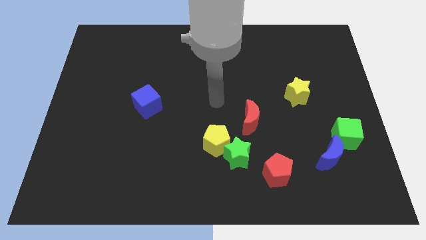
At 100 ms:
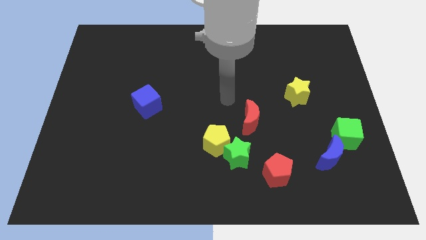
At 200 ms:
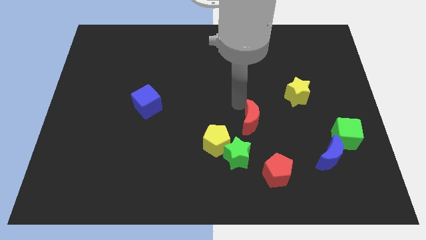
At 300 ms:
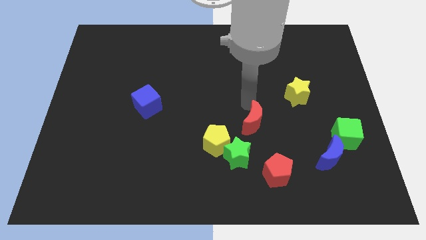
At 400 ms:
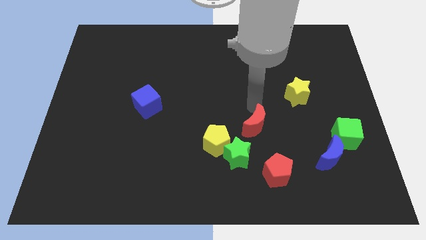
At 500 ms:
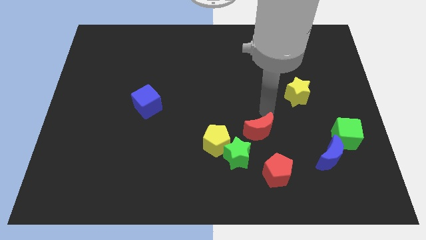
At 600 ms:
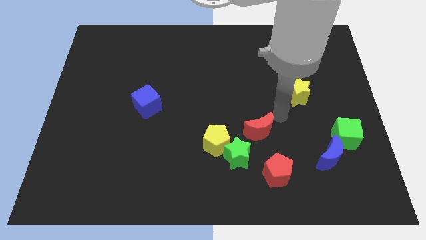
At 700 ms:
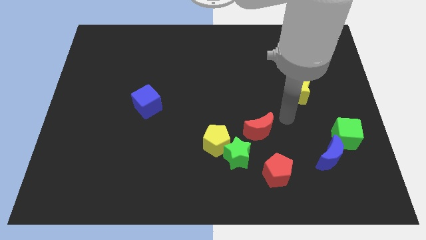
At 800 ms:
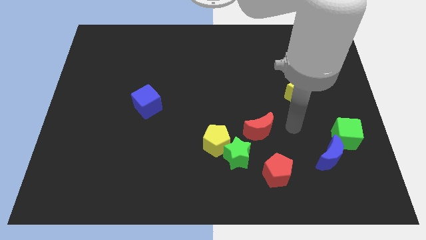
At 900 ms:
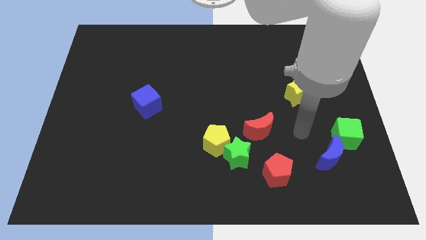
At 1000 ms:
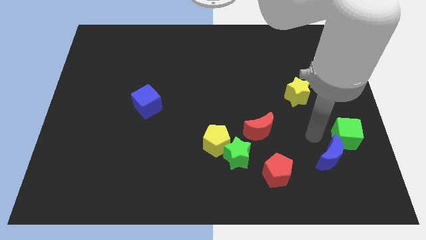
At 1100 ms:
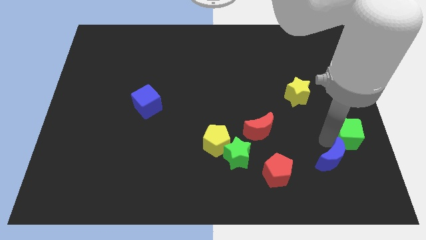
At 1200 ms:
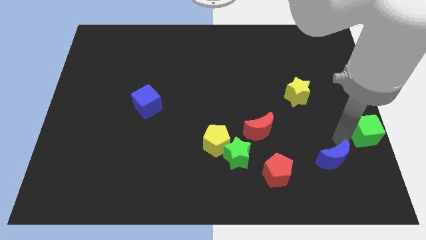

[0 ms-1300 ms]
separate the blue moon from the green cube

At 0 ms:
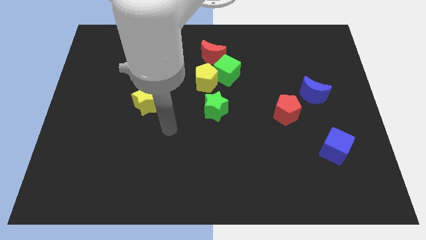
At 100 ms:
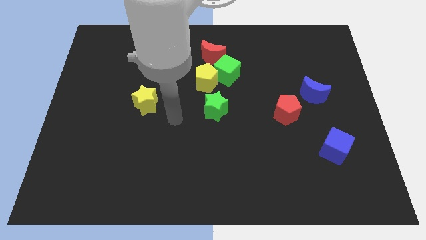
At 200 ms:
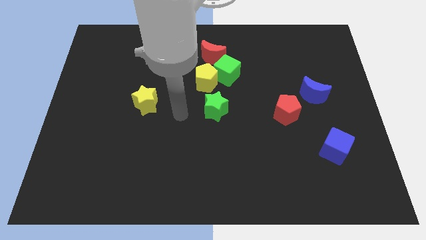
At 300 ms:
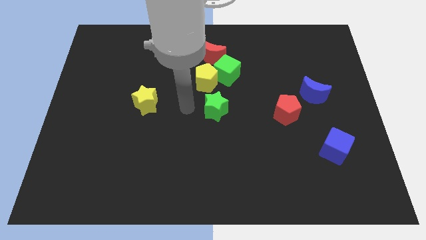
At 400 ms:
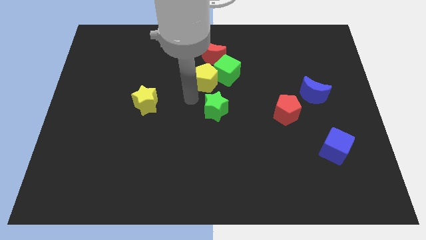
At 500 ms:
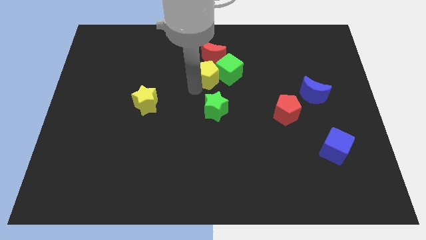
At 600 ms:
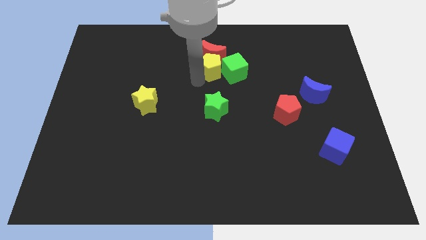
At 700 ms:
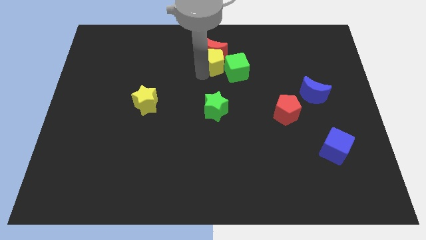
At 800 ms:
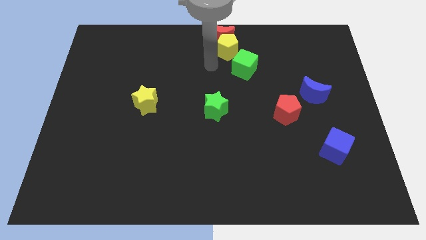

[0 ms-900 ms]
separate the green cube from the yellow pentagon and red moon

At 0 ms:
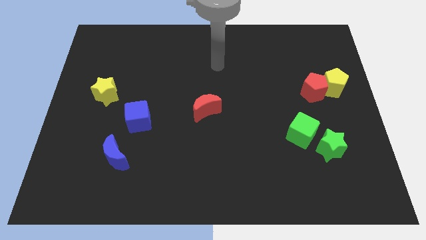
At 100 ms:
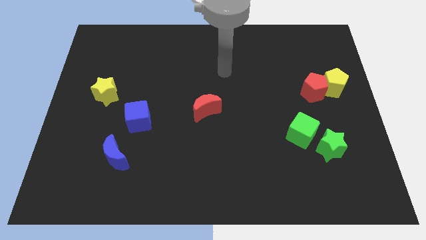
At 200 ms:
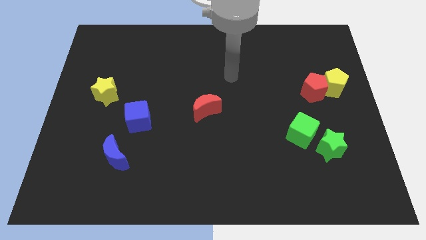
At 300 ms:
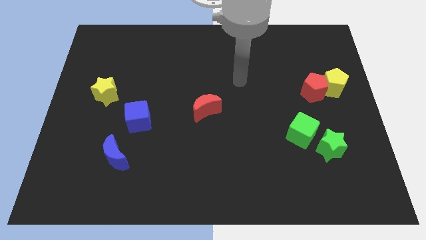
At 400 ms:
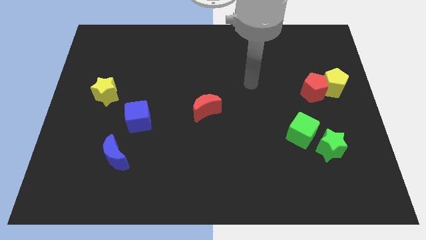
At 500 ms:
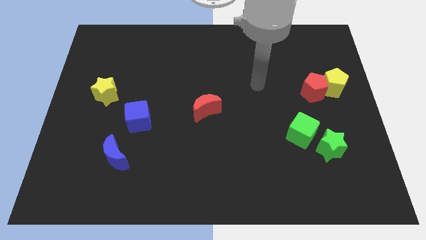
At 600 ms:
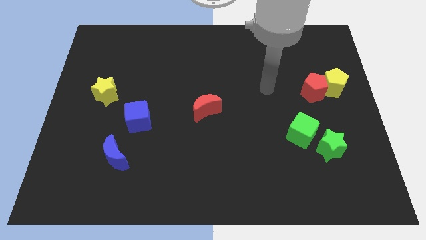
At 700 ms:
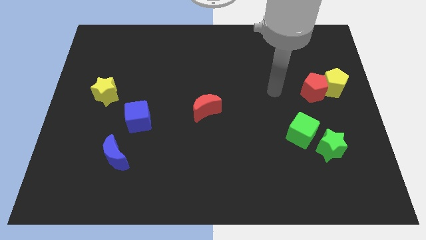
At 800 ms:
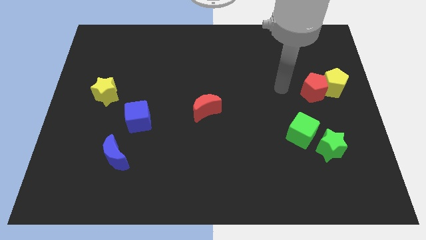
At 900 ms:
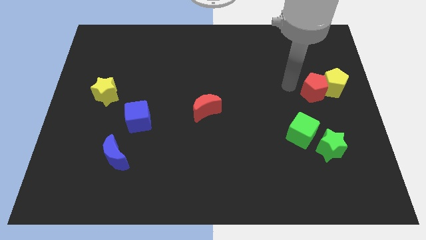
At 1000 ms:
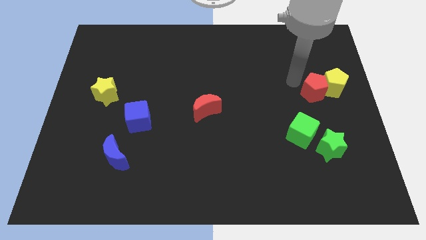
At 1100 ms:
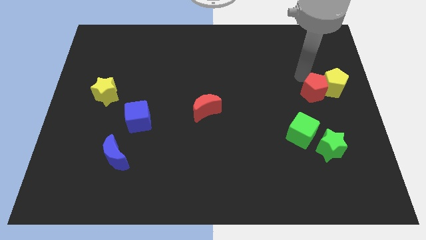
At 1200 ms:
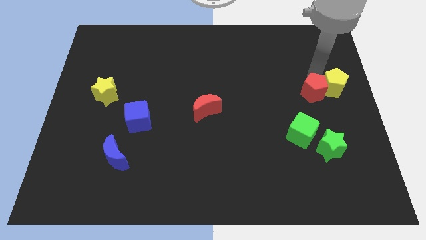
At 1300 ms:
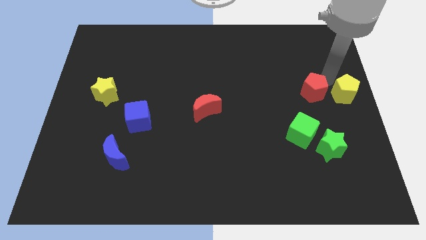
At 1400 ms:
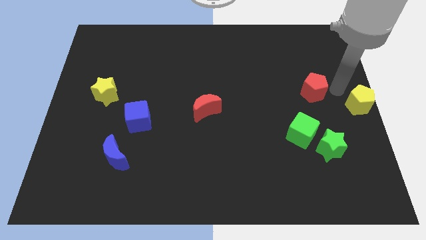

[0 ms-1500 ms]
separate the red pentagon from the yellow pentagon

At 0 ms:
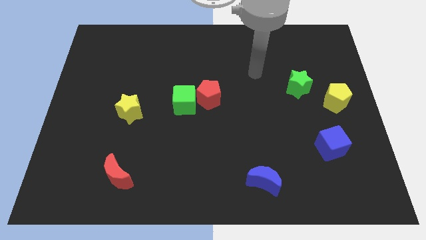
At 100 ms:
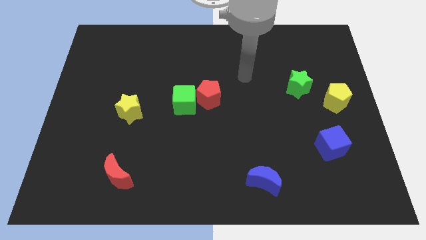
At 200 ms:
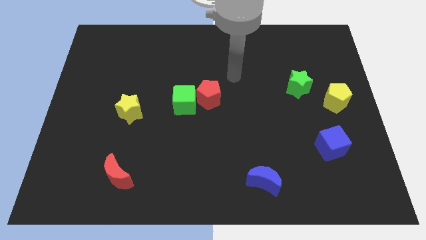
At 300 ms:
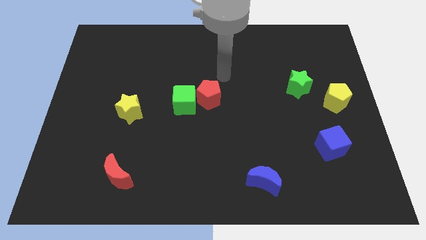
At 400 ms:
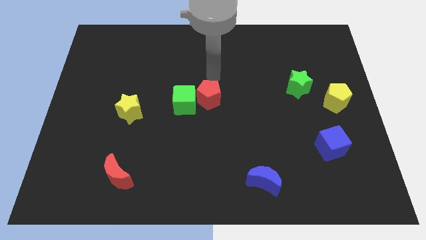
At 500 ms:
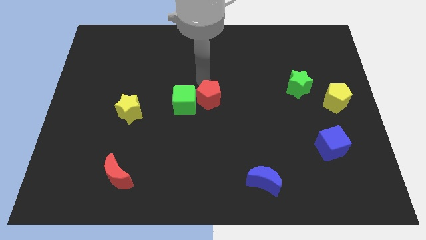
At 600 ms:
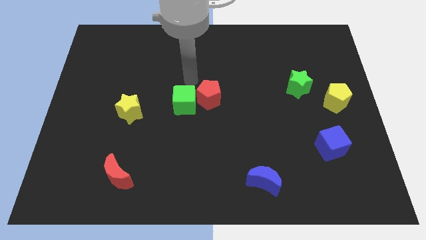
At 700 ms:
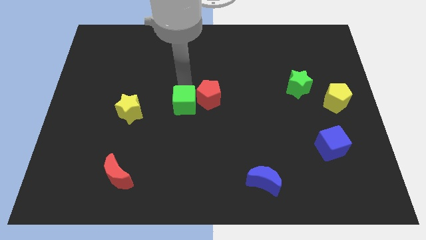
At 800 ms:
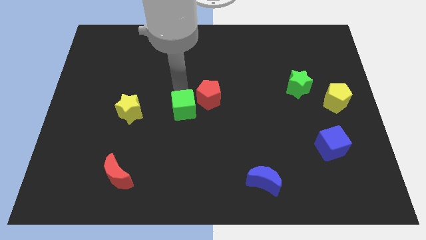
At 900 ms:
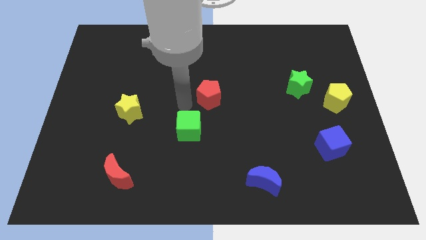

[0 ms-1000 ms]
move the red pentagon away from the green cube

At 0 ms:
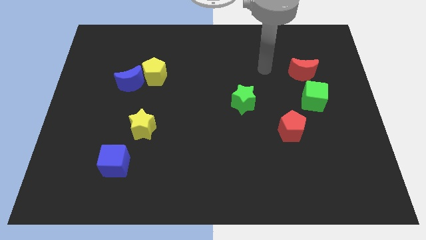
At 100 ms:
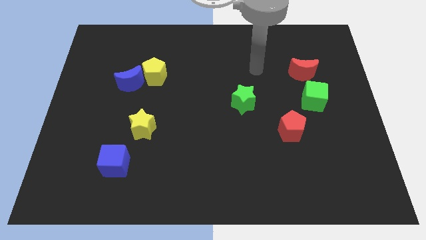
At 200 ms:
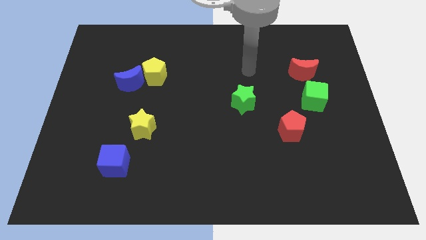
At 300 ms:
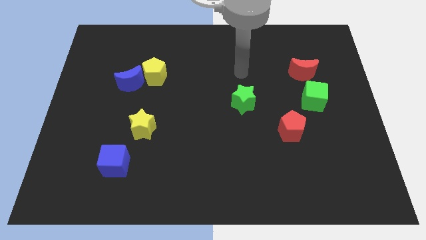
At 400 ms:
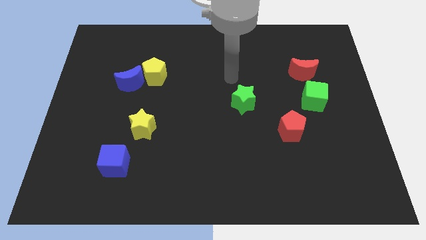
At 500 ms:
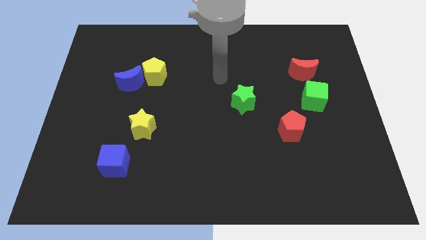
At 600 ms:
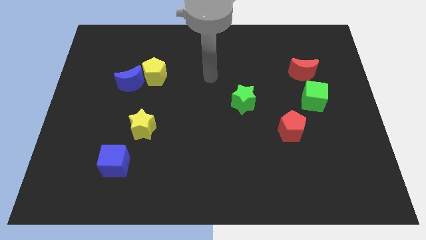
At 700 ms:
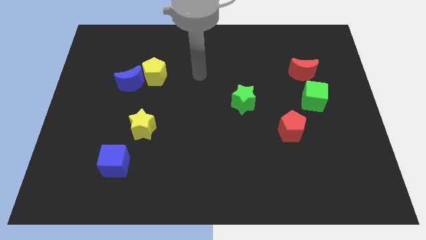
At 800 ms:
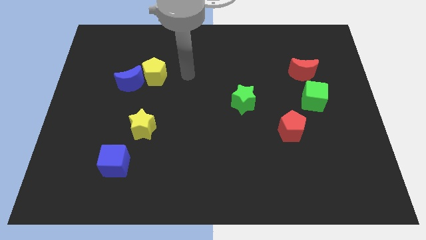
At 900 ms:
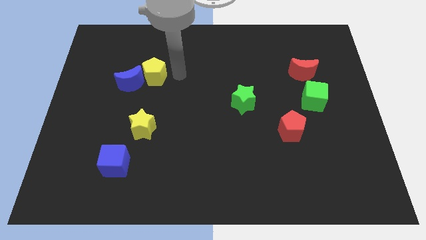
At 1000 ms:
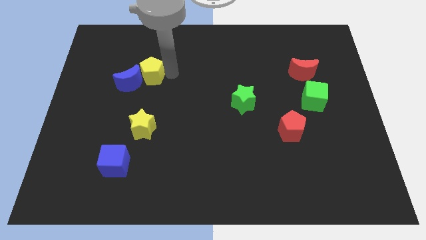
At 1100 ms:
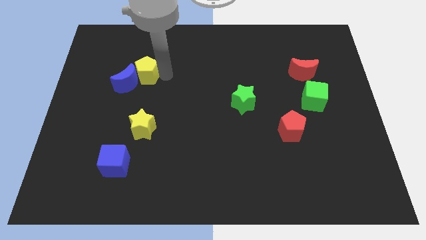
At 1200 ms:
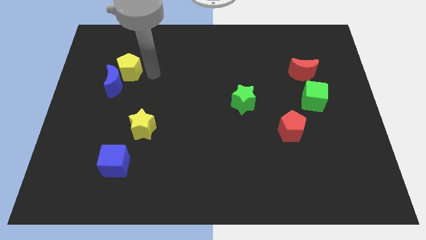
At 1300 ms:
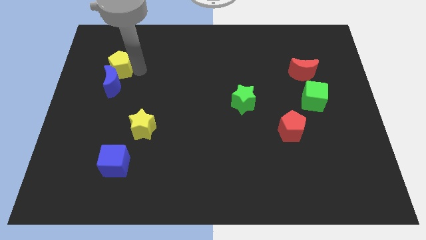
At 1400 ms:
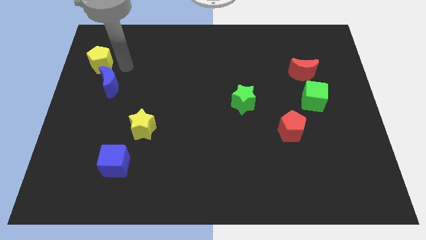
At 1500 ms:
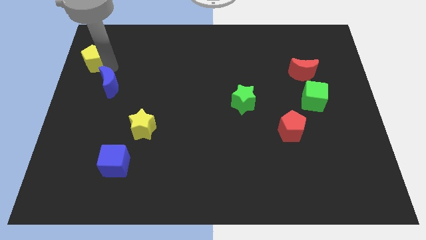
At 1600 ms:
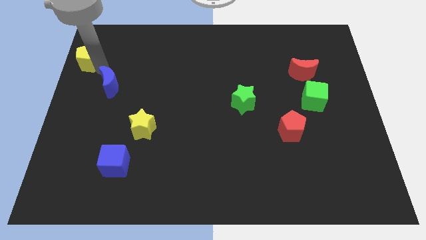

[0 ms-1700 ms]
pull the blue moon apart from the yellow pentagon

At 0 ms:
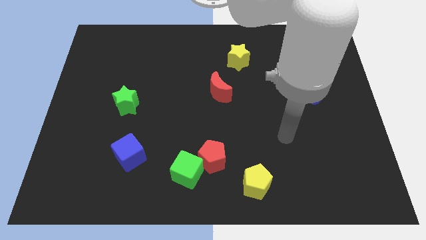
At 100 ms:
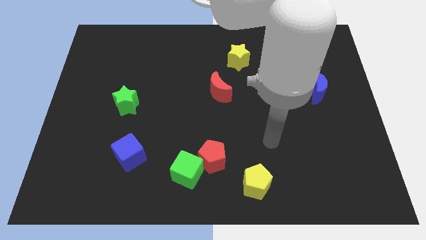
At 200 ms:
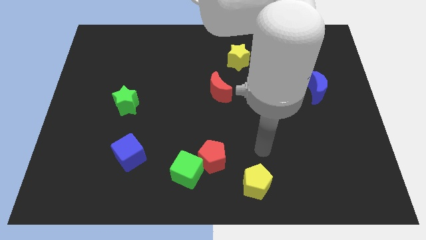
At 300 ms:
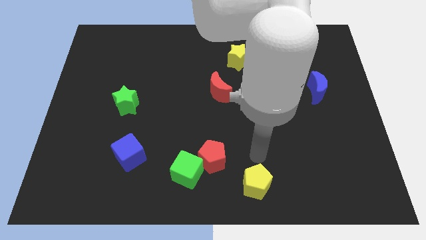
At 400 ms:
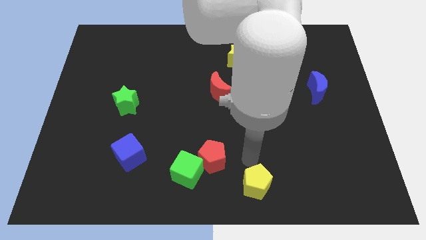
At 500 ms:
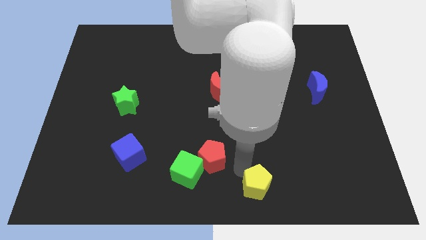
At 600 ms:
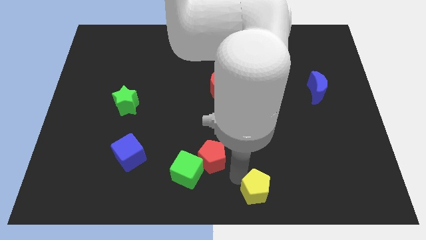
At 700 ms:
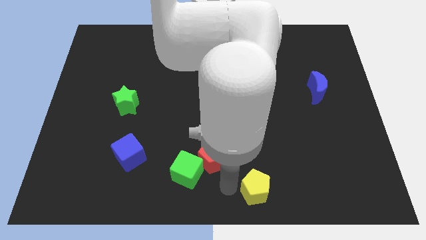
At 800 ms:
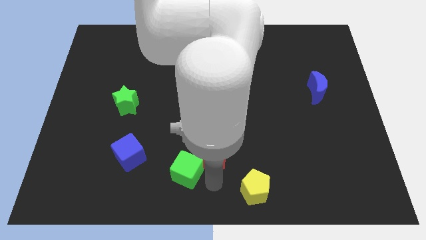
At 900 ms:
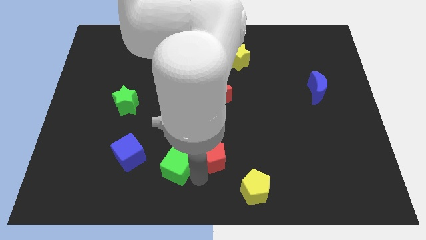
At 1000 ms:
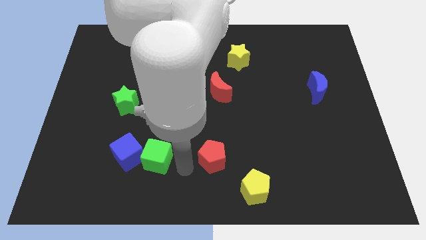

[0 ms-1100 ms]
separate the red pentagon from the green cube

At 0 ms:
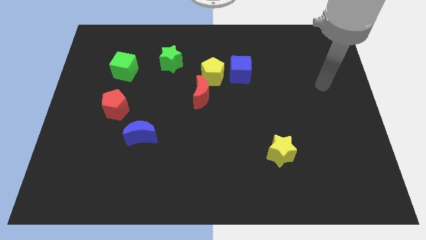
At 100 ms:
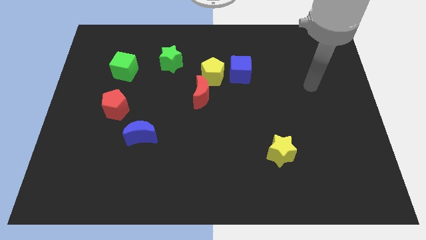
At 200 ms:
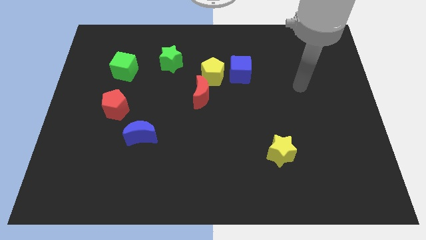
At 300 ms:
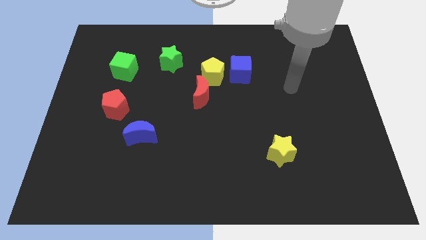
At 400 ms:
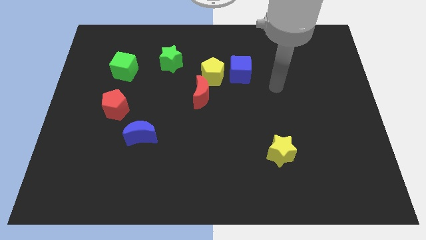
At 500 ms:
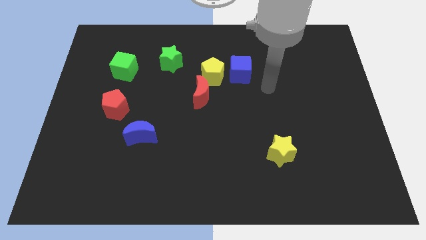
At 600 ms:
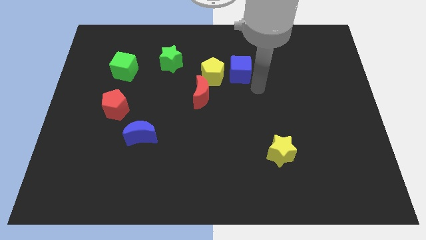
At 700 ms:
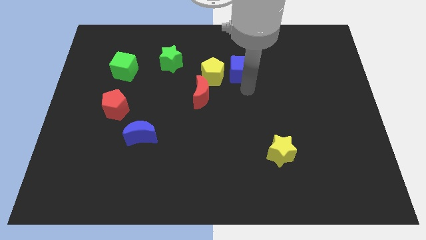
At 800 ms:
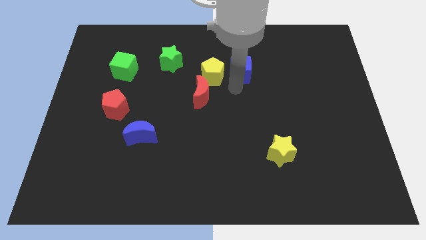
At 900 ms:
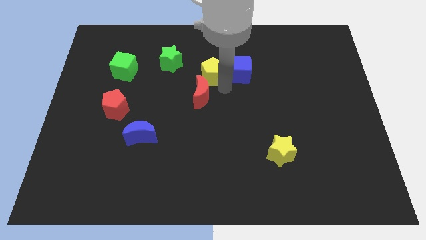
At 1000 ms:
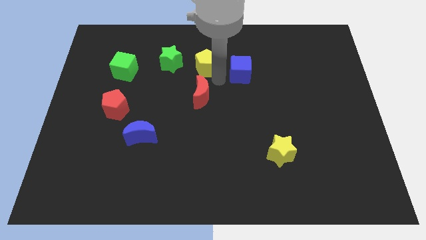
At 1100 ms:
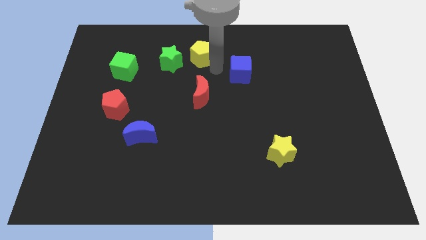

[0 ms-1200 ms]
move the blue cube away from the yellow pentagon

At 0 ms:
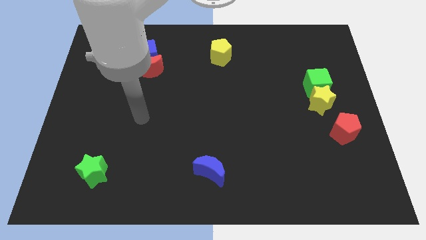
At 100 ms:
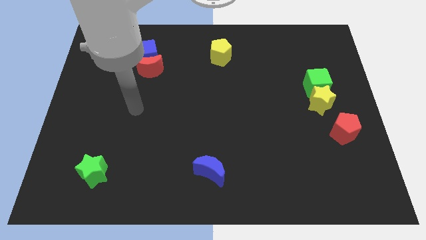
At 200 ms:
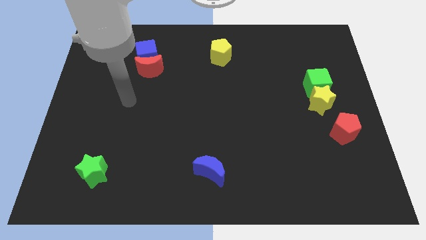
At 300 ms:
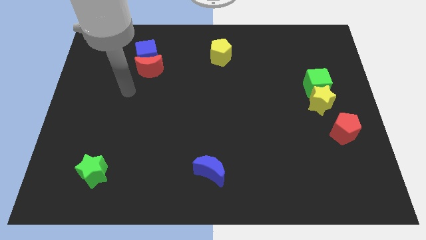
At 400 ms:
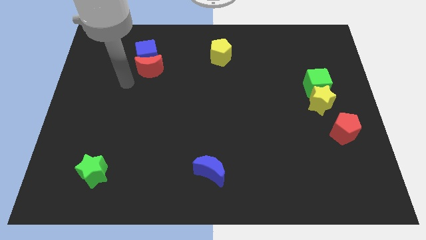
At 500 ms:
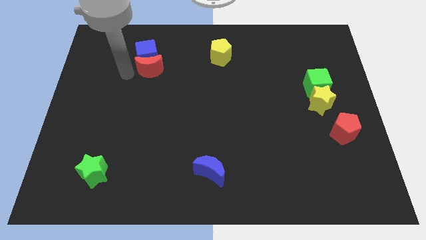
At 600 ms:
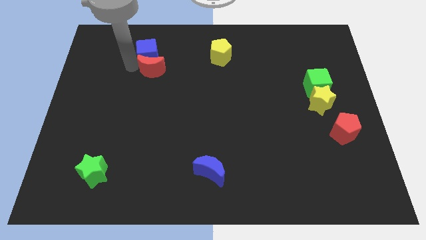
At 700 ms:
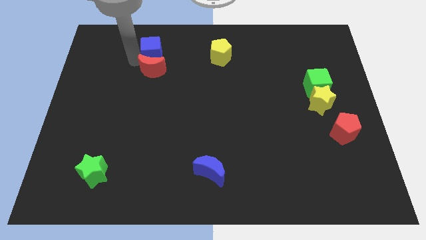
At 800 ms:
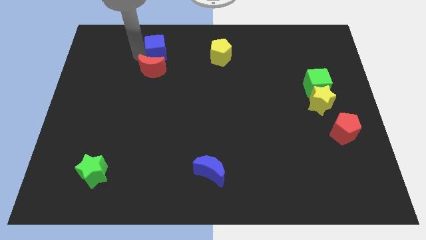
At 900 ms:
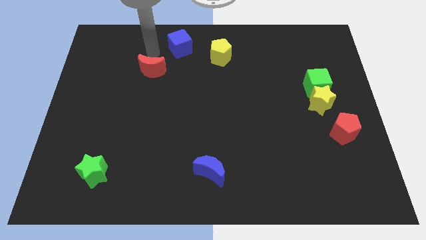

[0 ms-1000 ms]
move the red moon away from the blue cube
